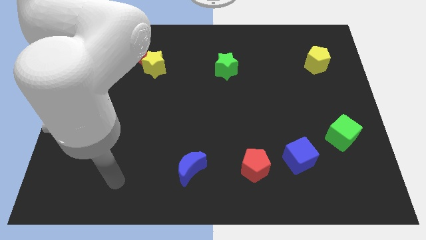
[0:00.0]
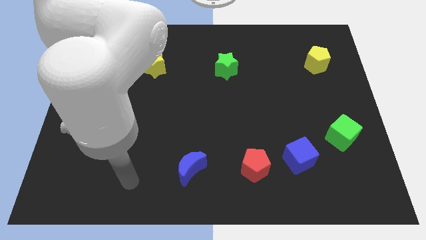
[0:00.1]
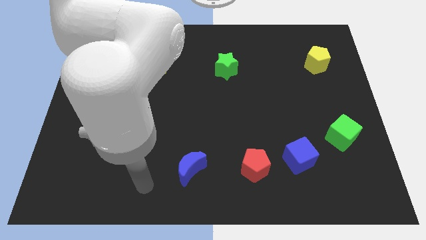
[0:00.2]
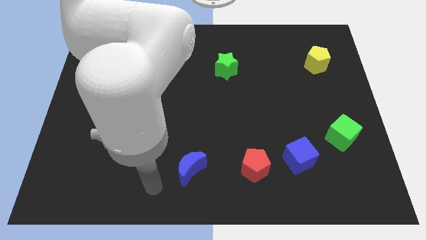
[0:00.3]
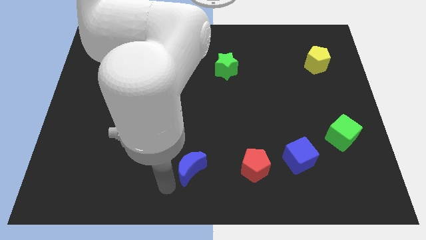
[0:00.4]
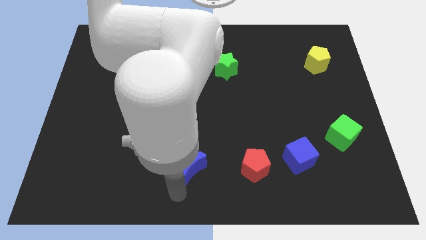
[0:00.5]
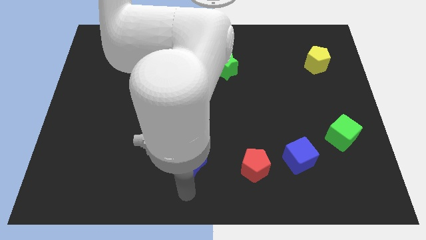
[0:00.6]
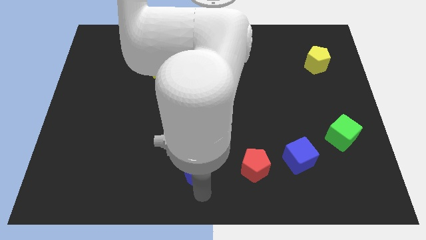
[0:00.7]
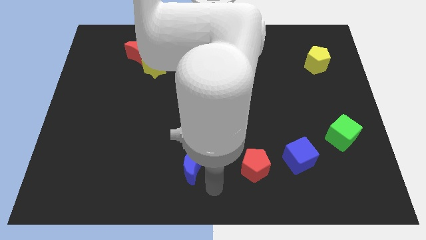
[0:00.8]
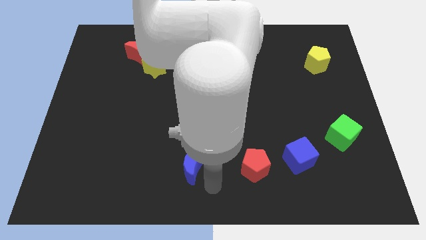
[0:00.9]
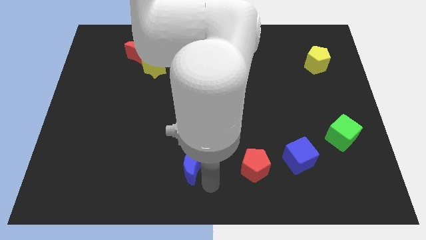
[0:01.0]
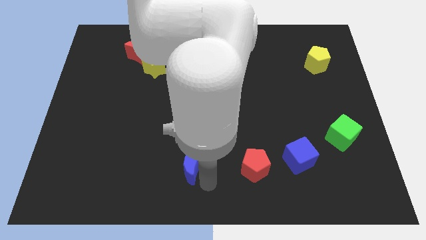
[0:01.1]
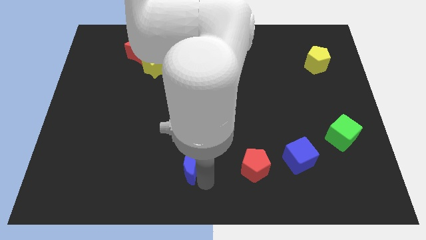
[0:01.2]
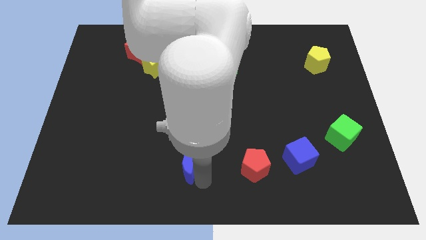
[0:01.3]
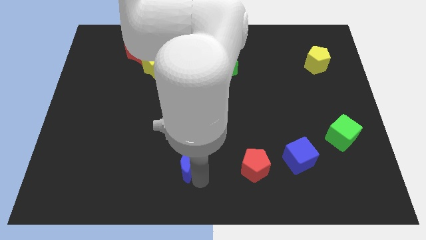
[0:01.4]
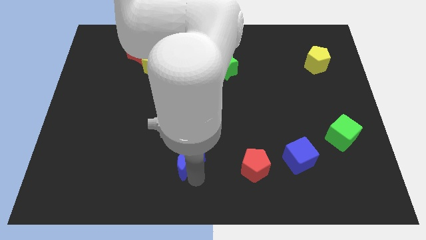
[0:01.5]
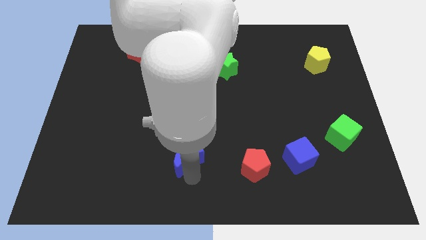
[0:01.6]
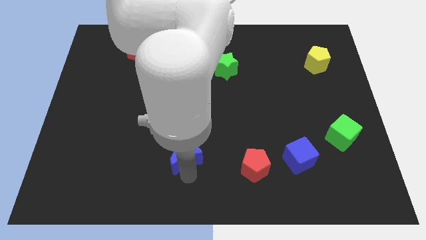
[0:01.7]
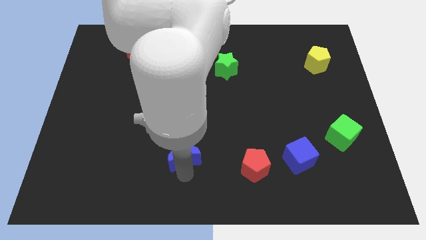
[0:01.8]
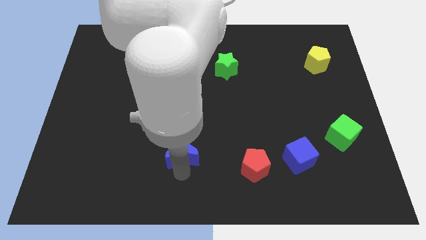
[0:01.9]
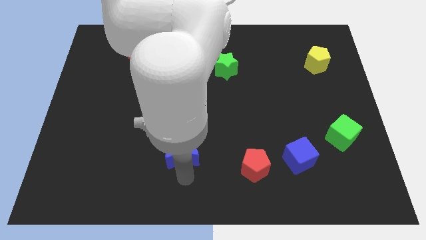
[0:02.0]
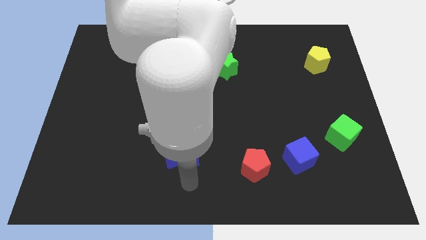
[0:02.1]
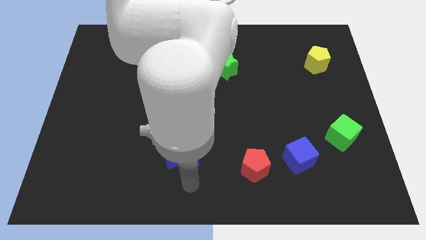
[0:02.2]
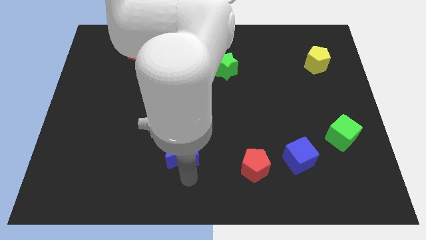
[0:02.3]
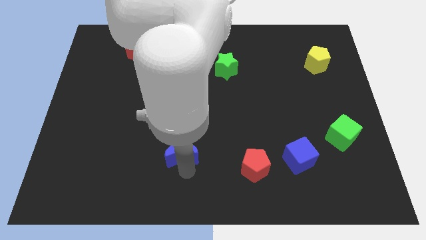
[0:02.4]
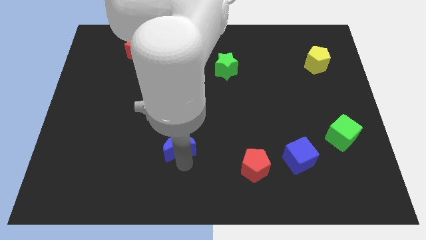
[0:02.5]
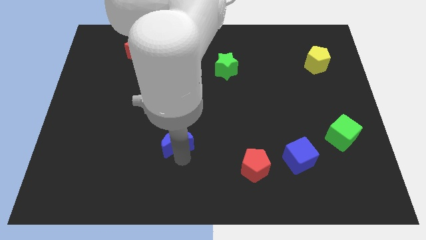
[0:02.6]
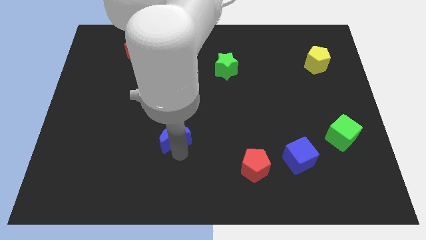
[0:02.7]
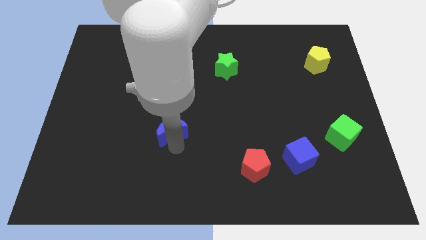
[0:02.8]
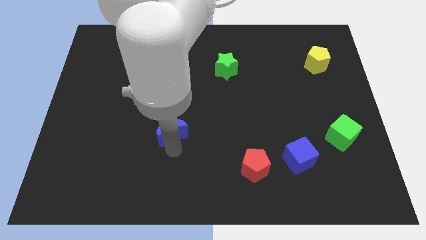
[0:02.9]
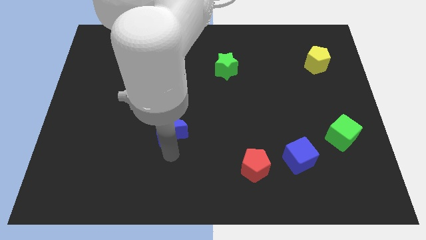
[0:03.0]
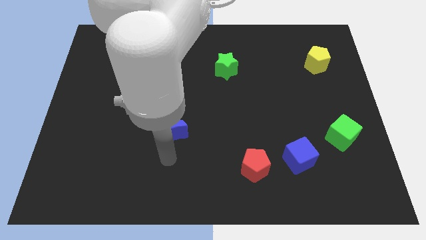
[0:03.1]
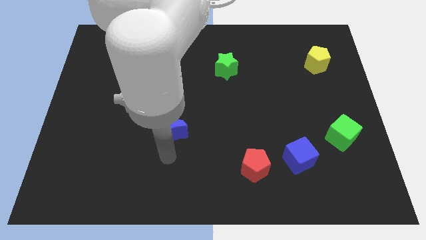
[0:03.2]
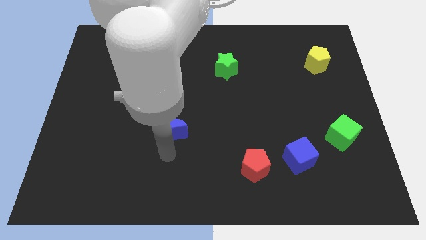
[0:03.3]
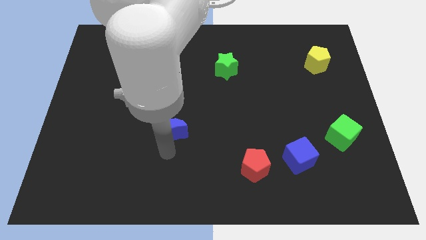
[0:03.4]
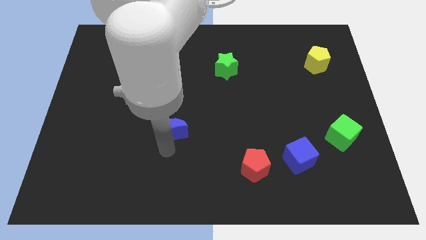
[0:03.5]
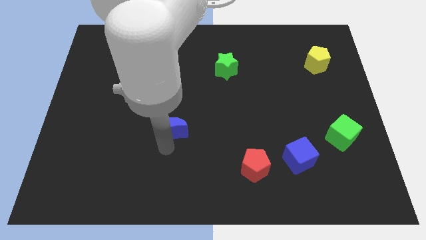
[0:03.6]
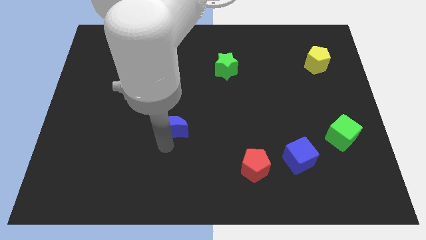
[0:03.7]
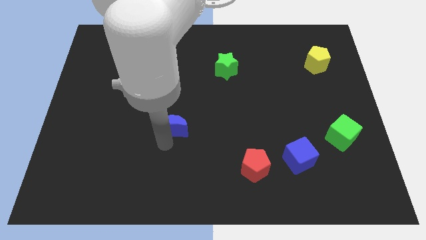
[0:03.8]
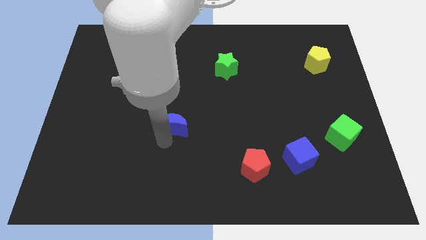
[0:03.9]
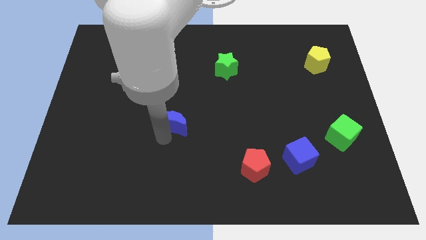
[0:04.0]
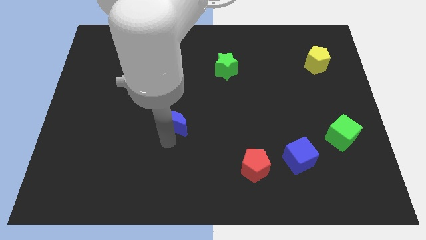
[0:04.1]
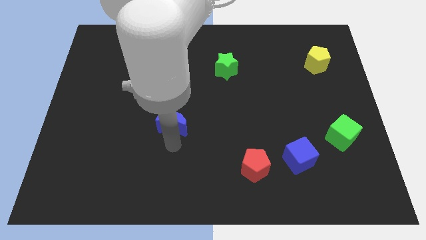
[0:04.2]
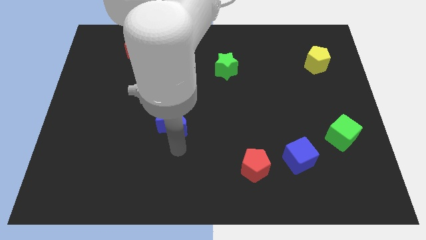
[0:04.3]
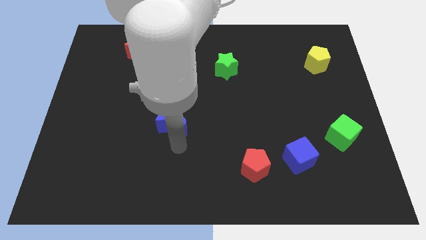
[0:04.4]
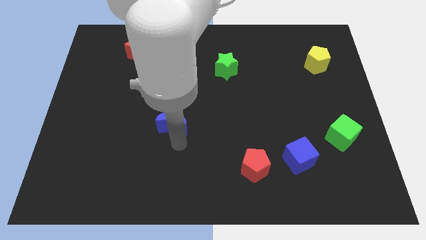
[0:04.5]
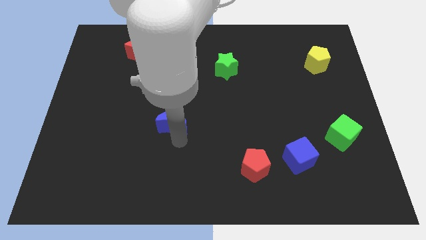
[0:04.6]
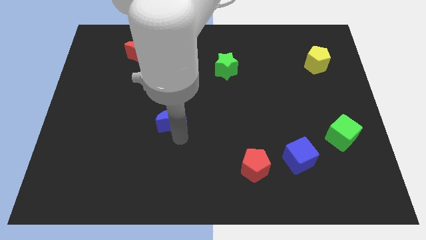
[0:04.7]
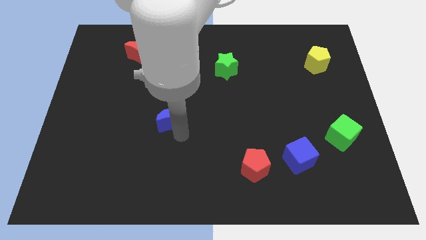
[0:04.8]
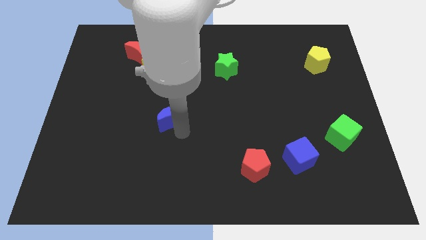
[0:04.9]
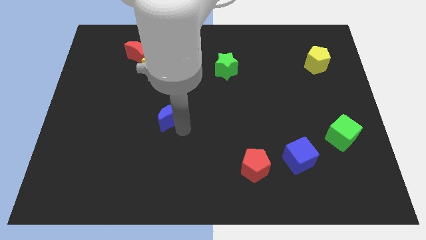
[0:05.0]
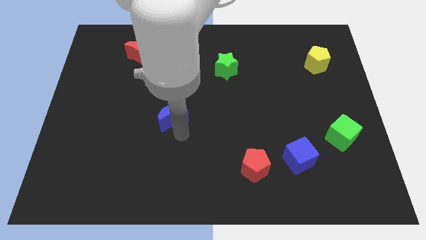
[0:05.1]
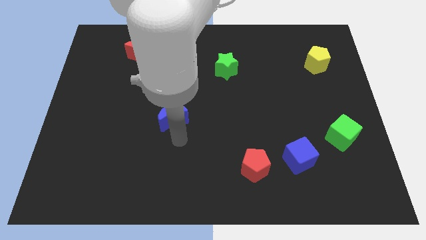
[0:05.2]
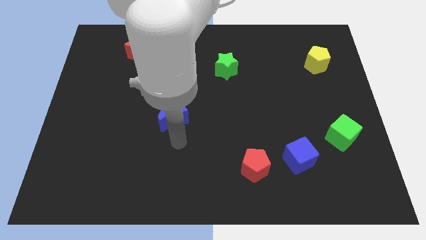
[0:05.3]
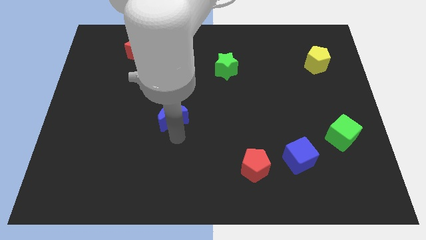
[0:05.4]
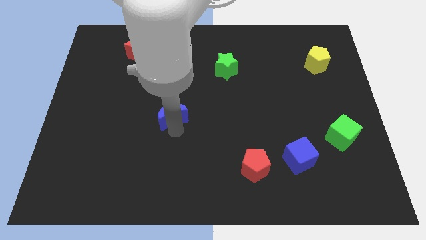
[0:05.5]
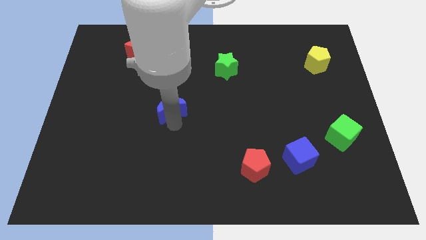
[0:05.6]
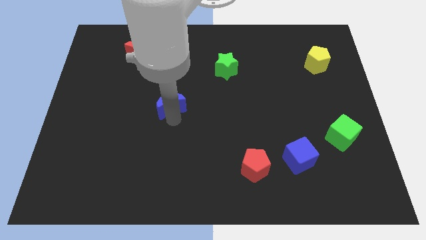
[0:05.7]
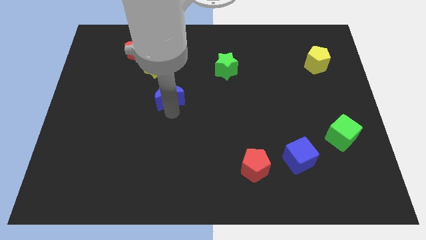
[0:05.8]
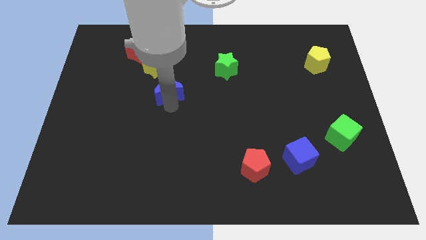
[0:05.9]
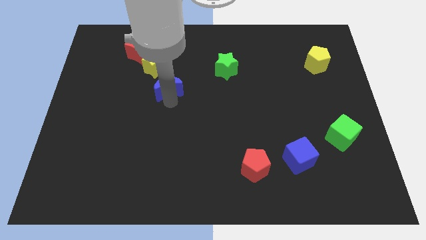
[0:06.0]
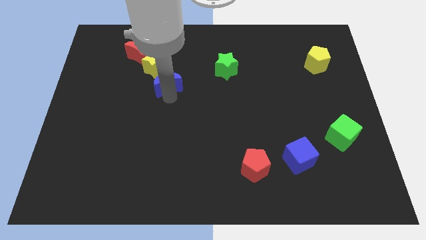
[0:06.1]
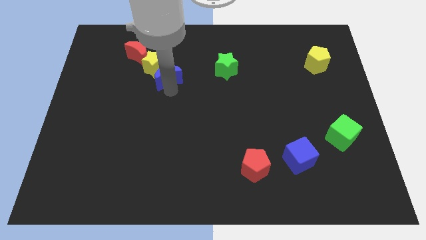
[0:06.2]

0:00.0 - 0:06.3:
put the blue moon towards the yellow star

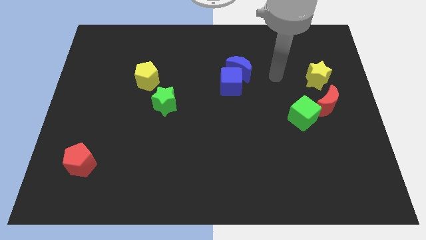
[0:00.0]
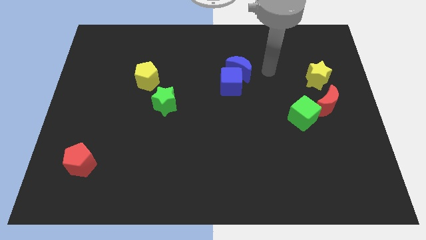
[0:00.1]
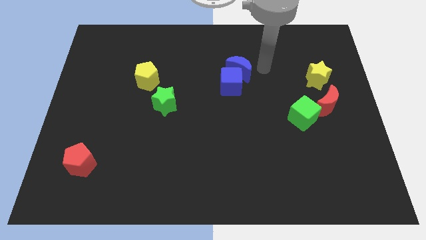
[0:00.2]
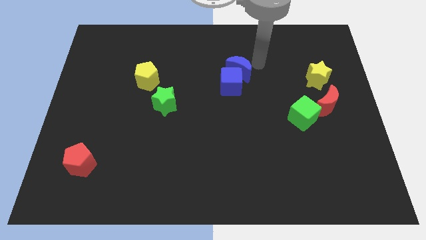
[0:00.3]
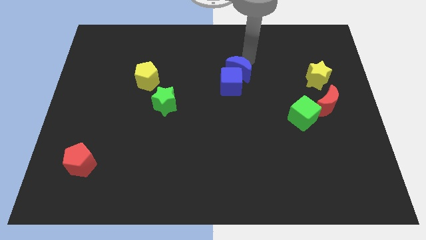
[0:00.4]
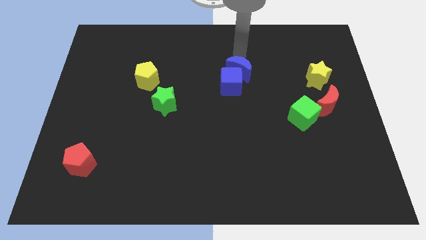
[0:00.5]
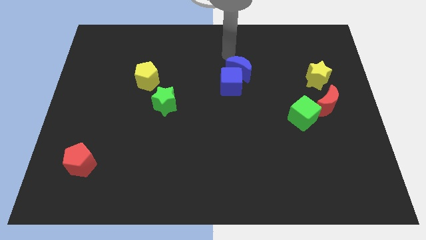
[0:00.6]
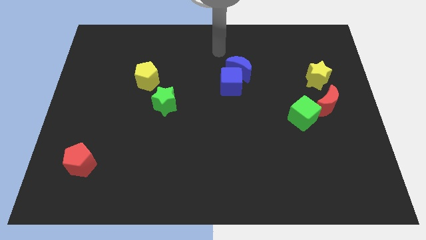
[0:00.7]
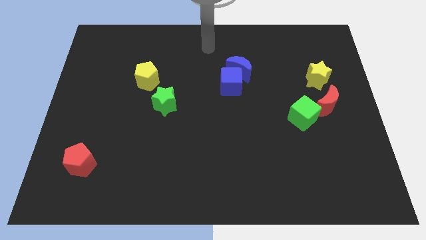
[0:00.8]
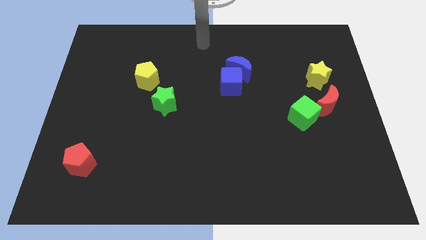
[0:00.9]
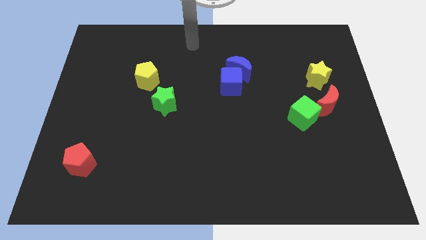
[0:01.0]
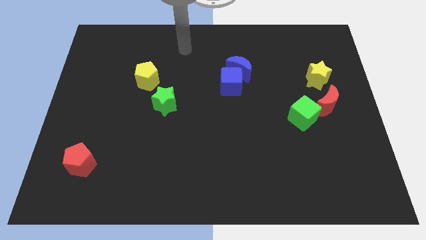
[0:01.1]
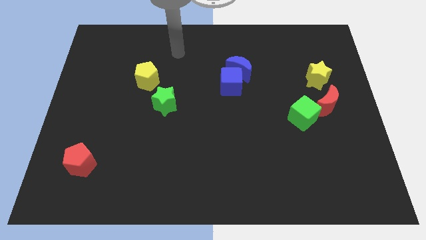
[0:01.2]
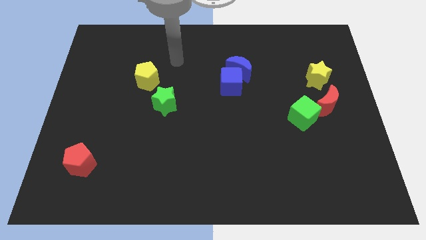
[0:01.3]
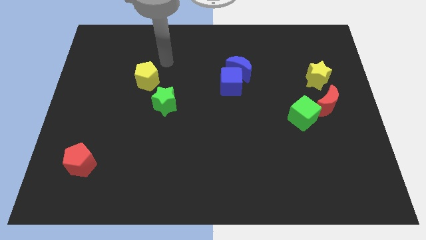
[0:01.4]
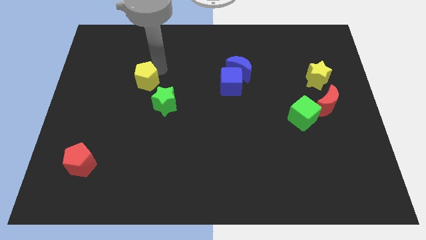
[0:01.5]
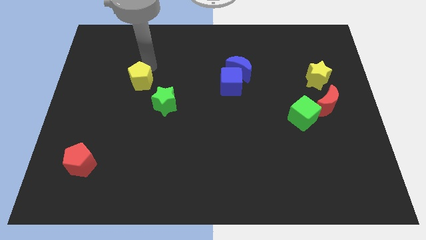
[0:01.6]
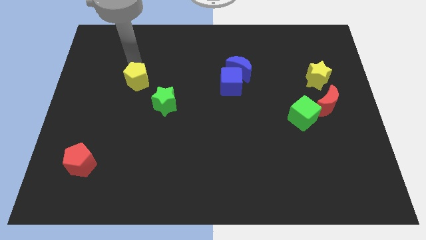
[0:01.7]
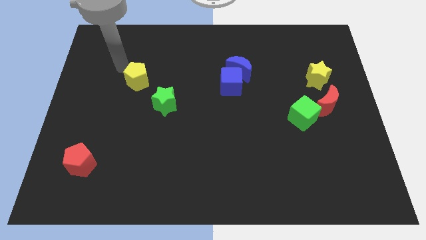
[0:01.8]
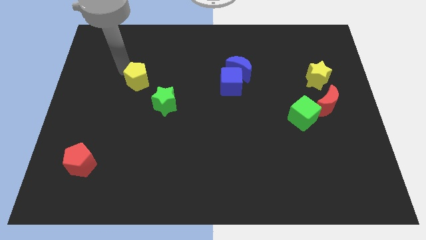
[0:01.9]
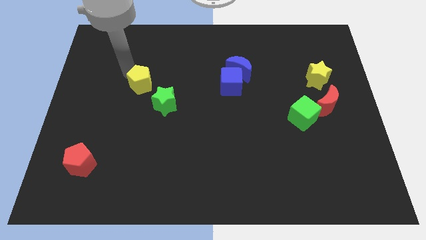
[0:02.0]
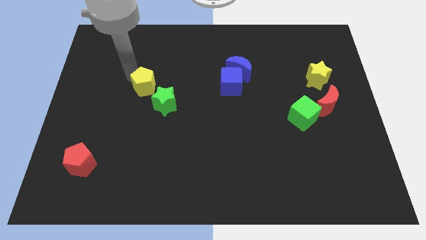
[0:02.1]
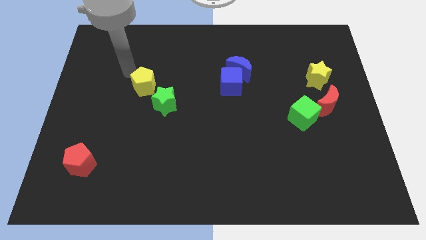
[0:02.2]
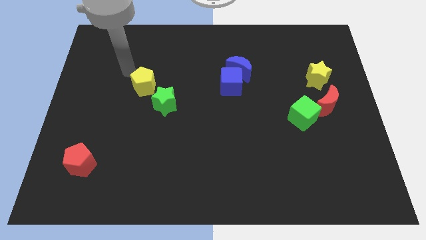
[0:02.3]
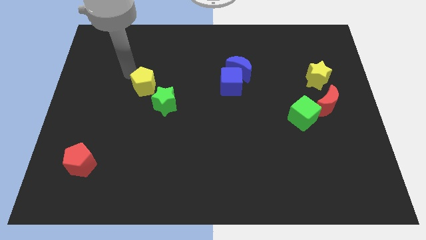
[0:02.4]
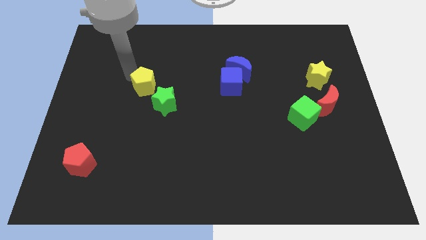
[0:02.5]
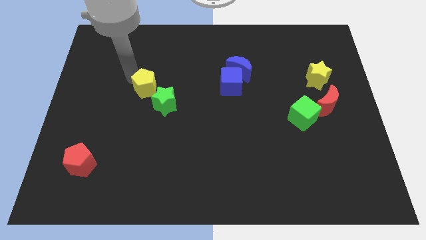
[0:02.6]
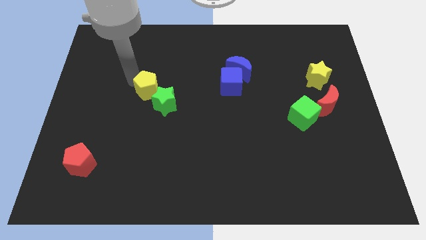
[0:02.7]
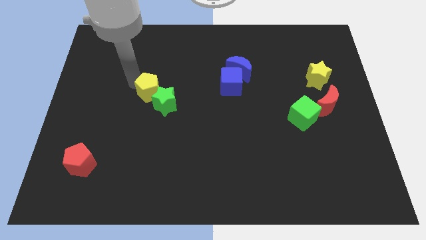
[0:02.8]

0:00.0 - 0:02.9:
put the yellow pentagon to the green star
